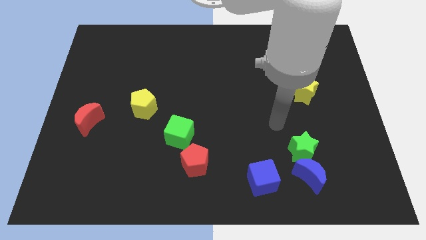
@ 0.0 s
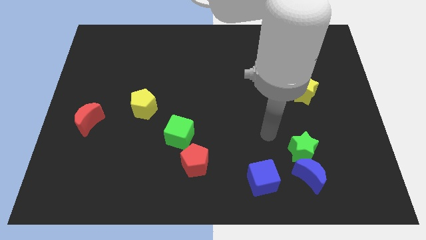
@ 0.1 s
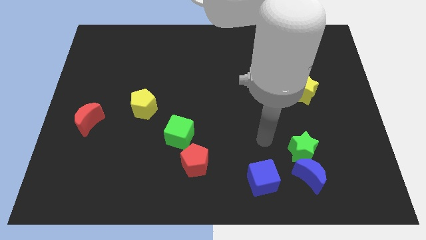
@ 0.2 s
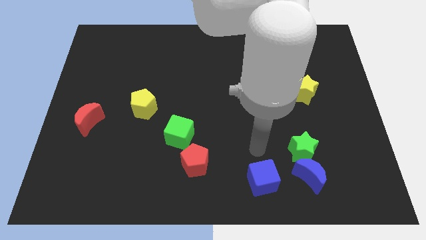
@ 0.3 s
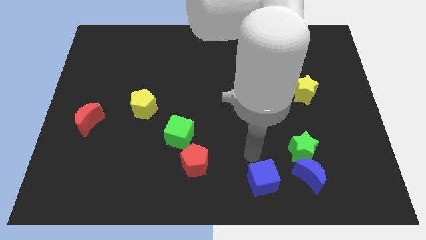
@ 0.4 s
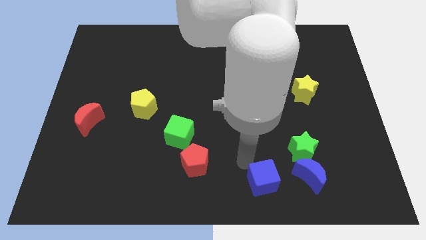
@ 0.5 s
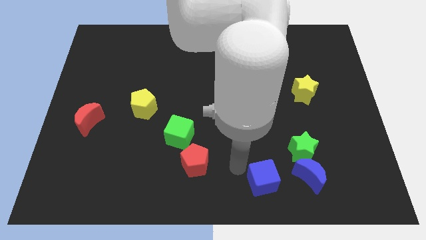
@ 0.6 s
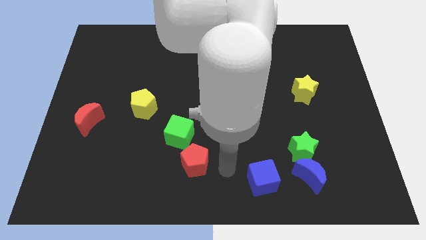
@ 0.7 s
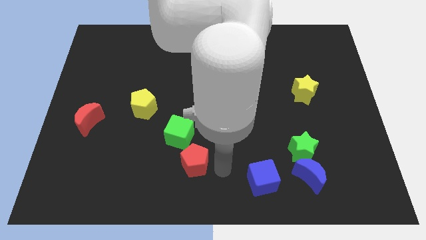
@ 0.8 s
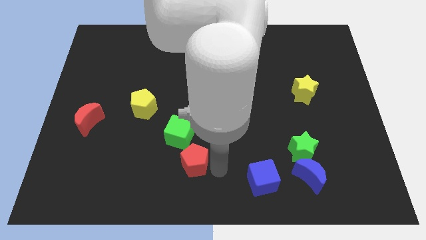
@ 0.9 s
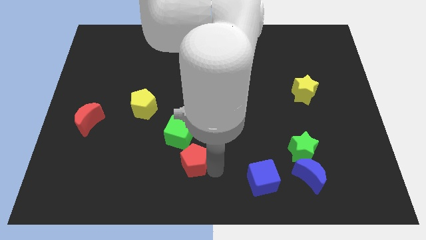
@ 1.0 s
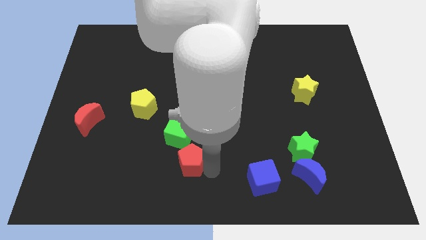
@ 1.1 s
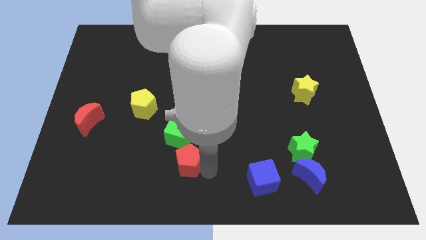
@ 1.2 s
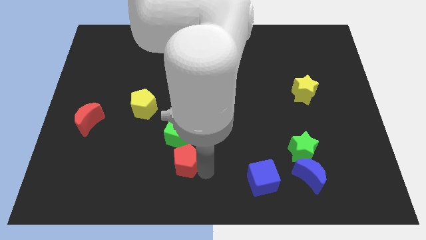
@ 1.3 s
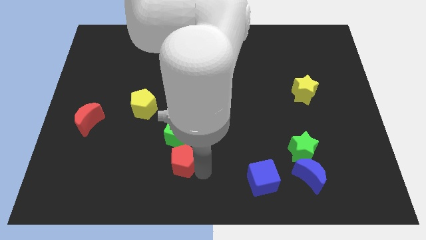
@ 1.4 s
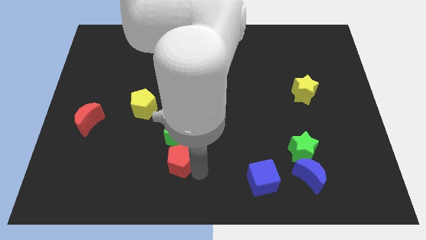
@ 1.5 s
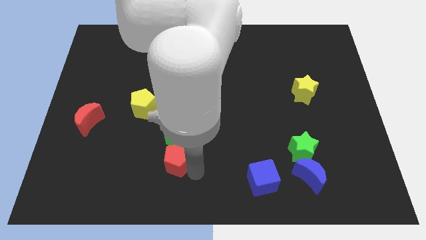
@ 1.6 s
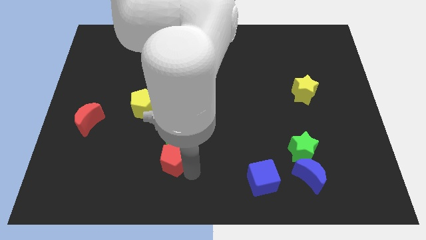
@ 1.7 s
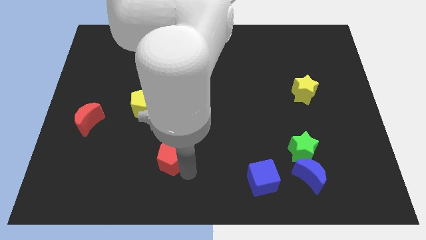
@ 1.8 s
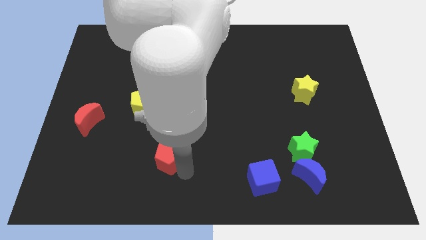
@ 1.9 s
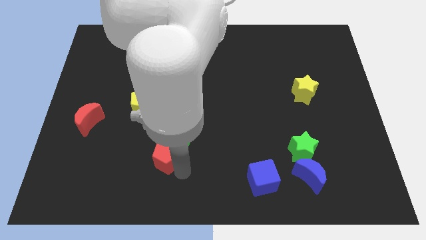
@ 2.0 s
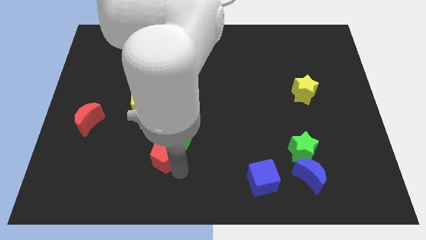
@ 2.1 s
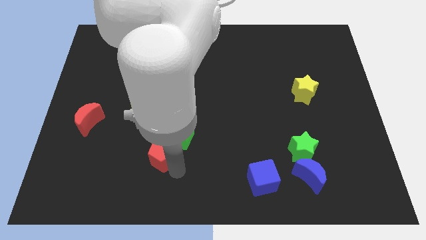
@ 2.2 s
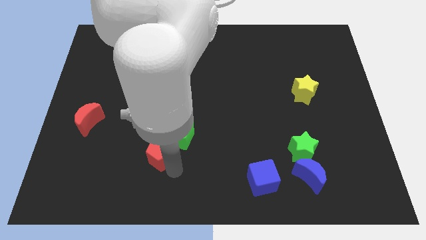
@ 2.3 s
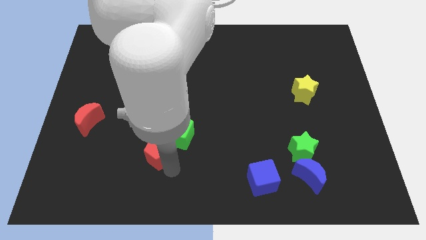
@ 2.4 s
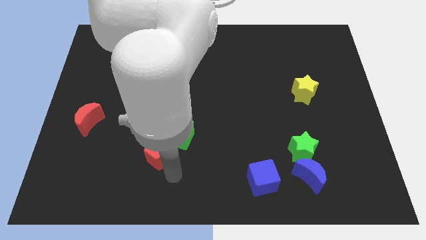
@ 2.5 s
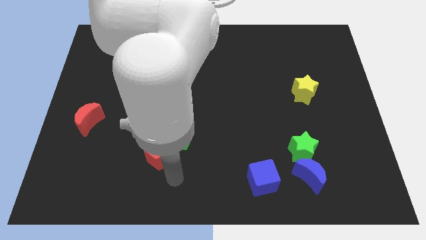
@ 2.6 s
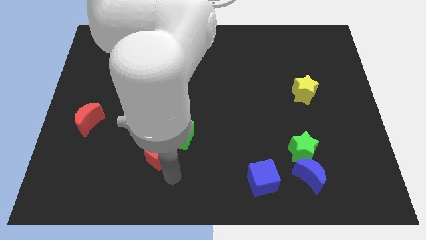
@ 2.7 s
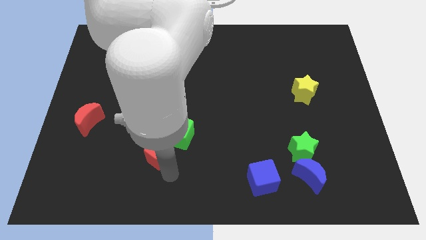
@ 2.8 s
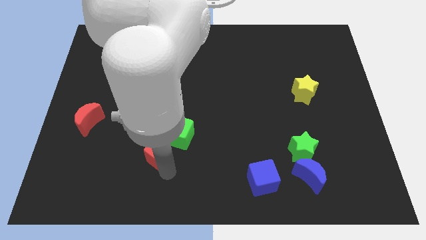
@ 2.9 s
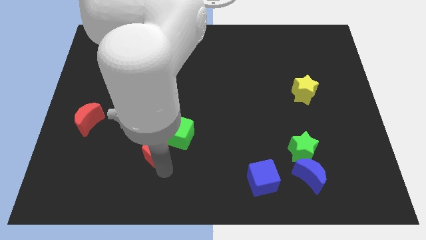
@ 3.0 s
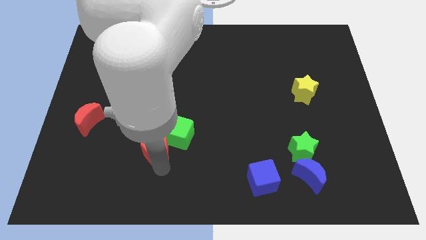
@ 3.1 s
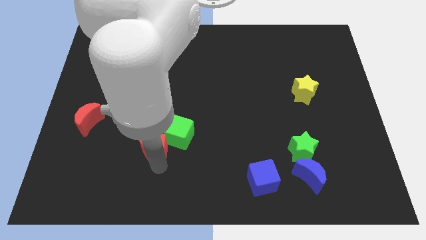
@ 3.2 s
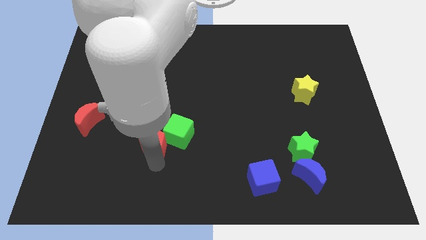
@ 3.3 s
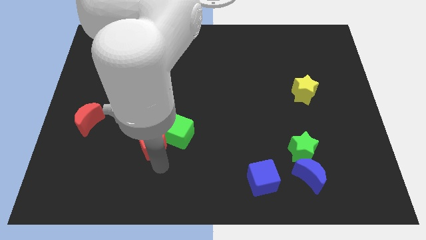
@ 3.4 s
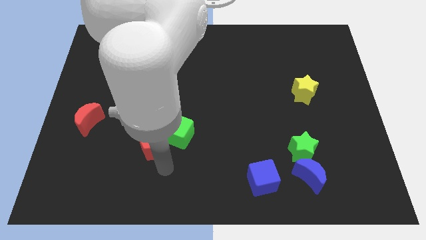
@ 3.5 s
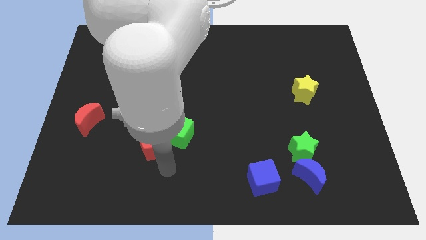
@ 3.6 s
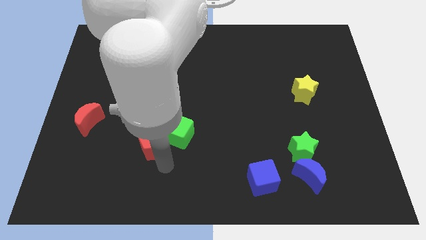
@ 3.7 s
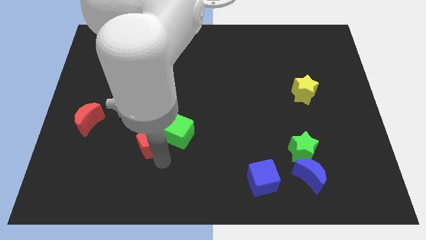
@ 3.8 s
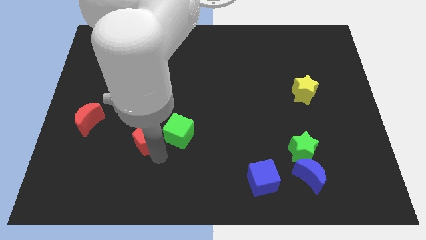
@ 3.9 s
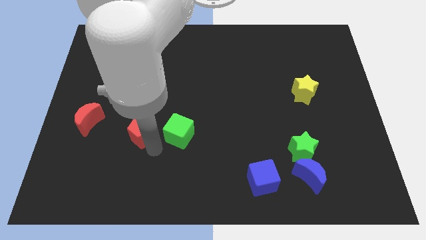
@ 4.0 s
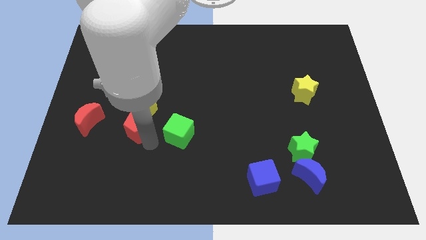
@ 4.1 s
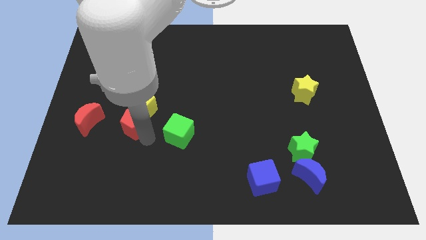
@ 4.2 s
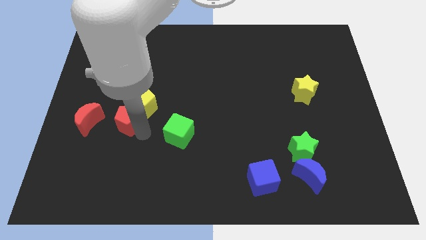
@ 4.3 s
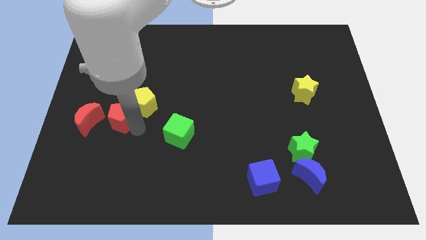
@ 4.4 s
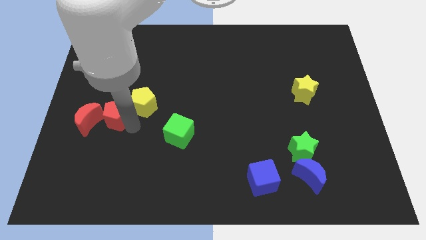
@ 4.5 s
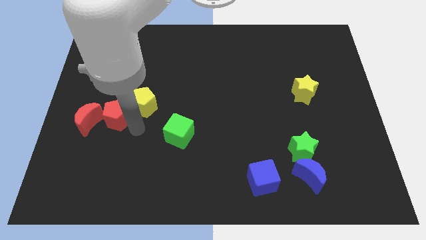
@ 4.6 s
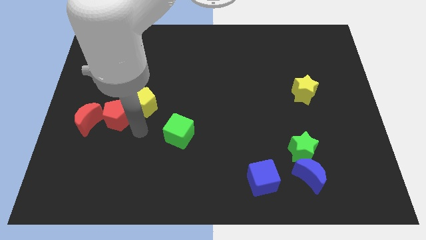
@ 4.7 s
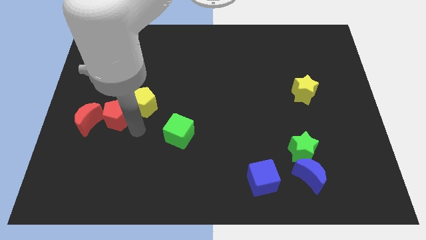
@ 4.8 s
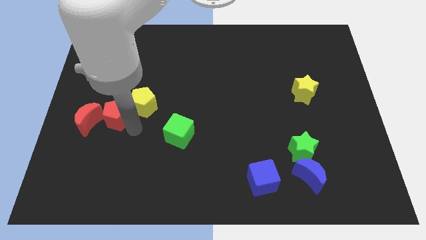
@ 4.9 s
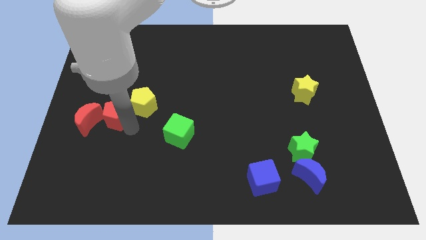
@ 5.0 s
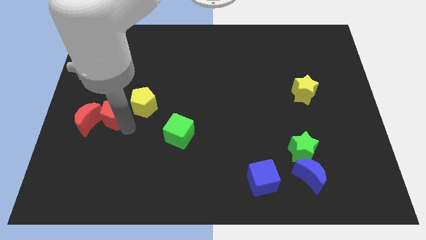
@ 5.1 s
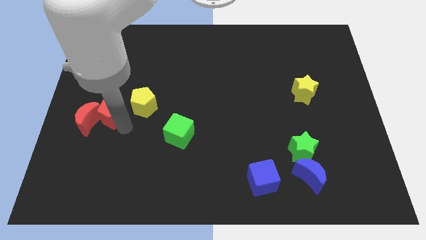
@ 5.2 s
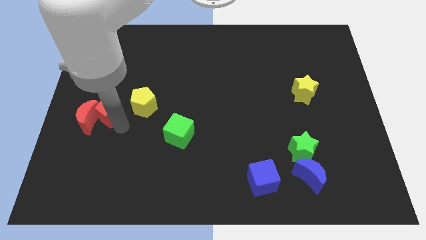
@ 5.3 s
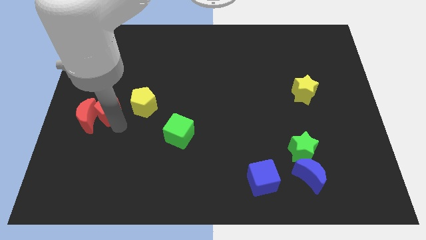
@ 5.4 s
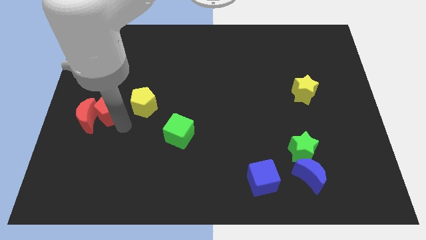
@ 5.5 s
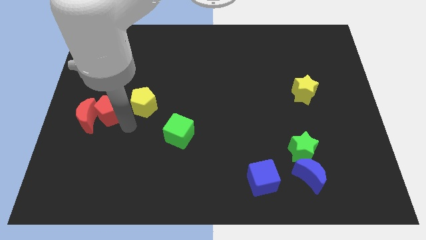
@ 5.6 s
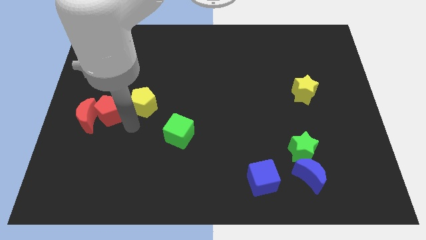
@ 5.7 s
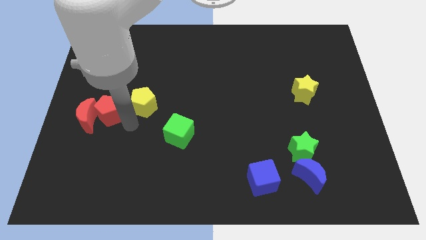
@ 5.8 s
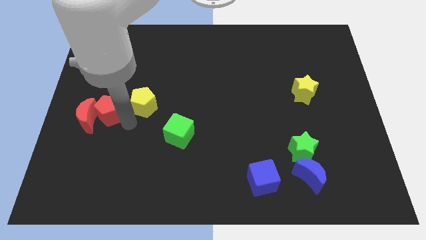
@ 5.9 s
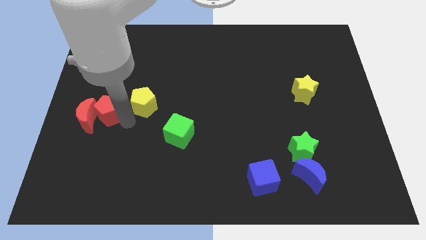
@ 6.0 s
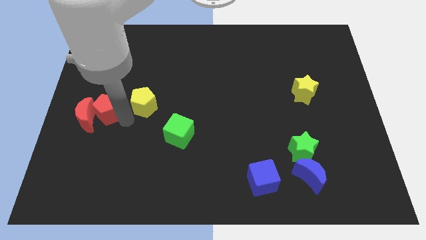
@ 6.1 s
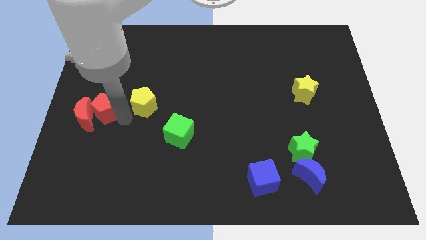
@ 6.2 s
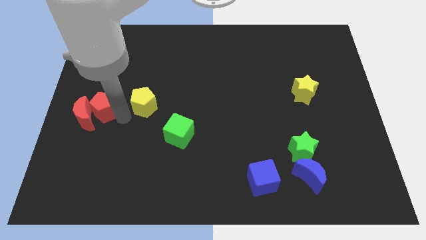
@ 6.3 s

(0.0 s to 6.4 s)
put the red pentagon to the center left

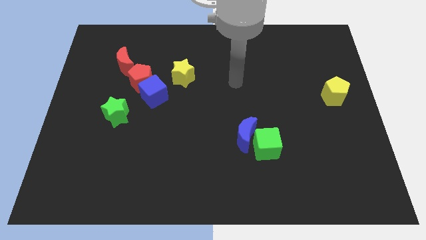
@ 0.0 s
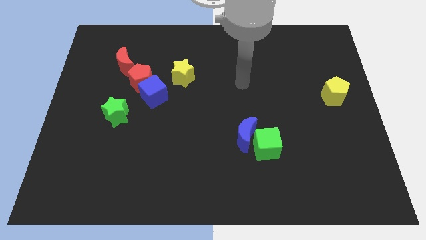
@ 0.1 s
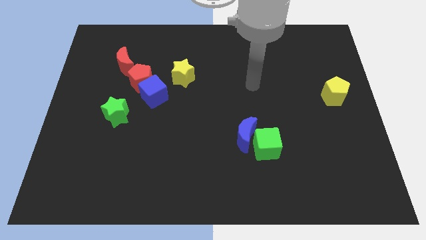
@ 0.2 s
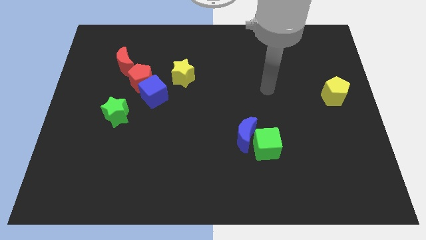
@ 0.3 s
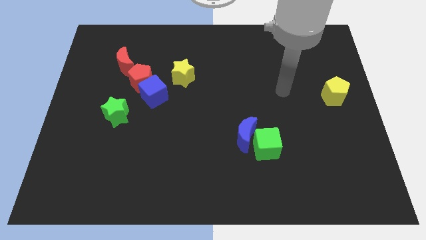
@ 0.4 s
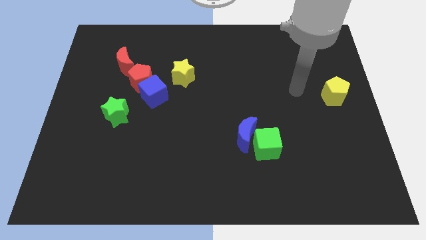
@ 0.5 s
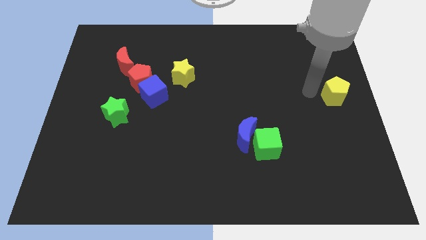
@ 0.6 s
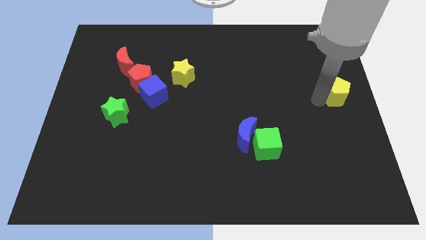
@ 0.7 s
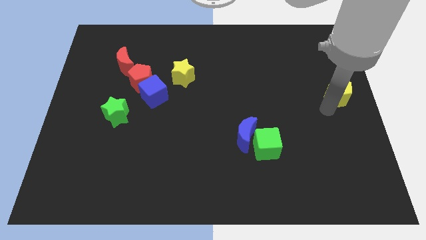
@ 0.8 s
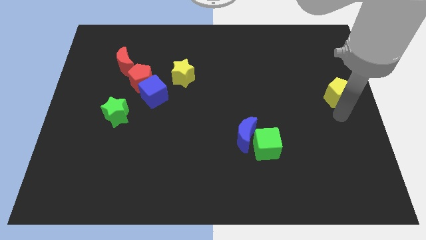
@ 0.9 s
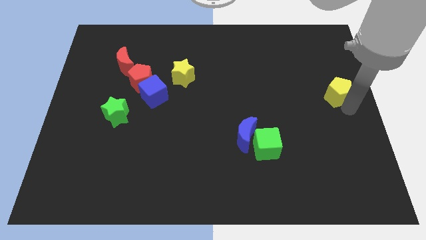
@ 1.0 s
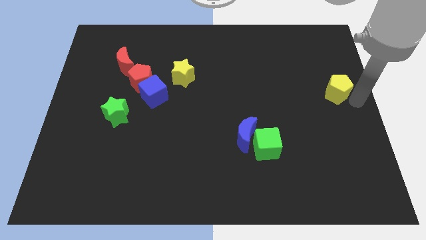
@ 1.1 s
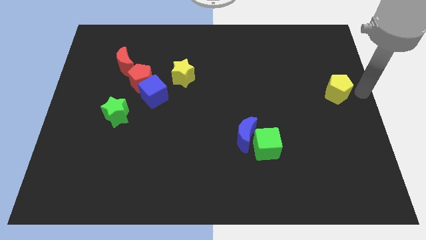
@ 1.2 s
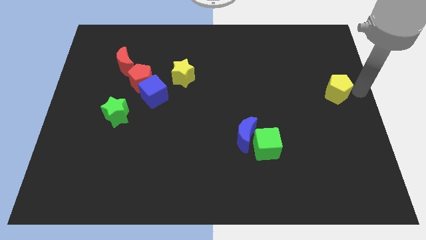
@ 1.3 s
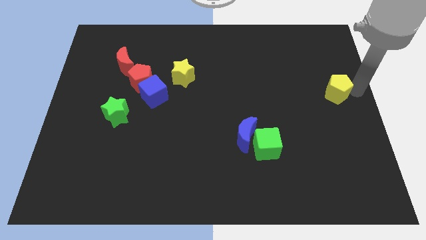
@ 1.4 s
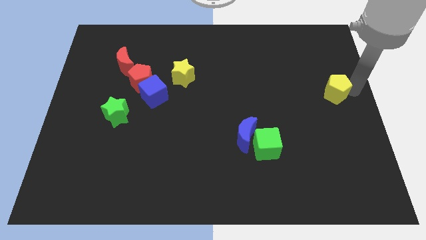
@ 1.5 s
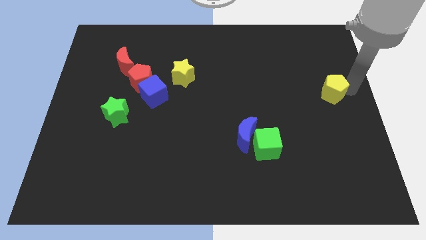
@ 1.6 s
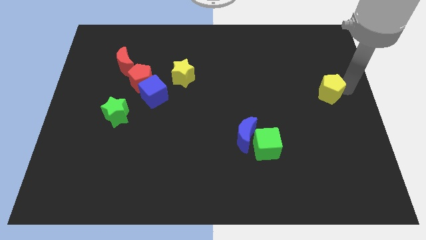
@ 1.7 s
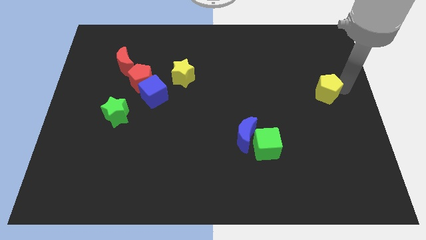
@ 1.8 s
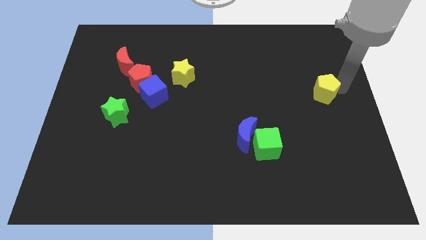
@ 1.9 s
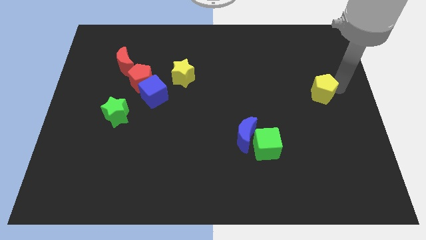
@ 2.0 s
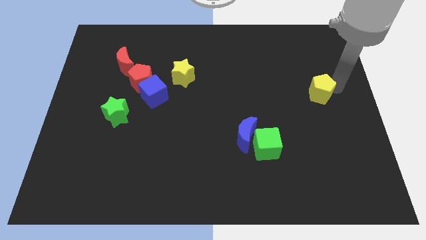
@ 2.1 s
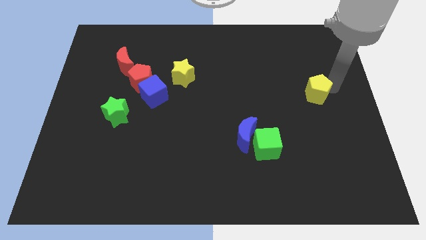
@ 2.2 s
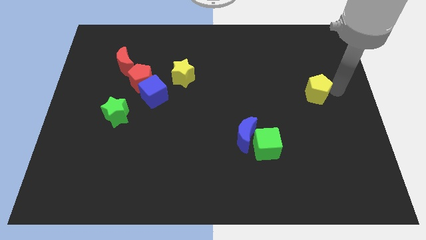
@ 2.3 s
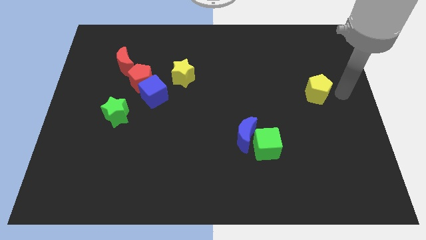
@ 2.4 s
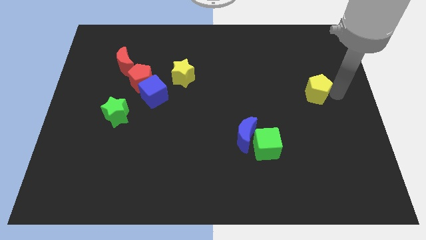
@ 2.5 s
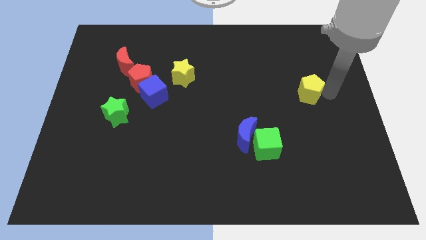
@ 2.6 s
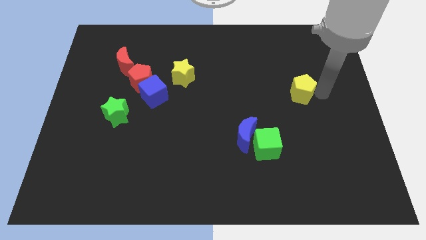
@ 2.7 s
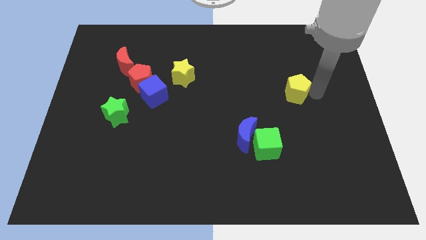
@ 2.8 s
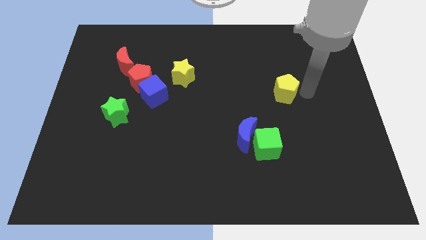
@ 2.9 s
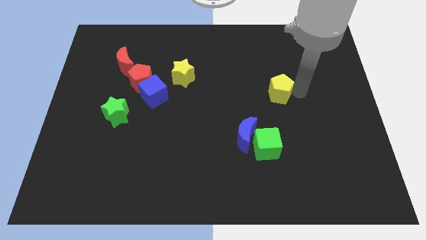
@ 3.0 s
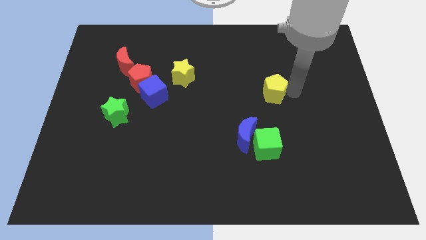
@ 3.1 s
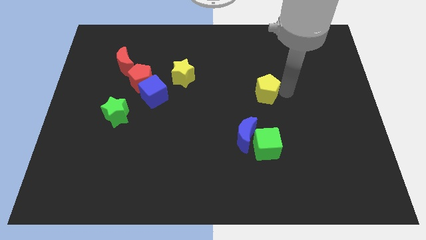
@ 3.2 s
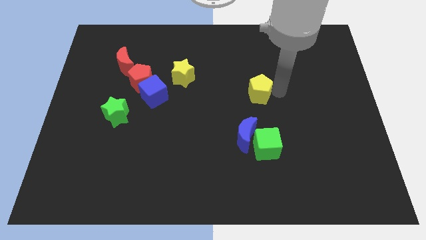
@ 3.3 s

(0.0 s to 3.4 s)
slide the yellow pentagon to the center
